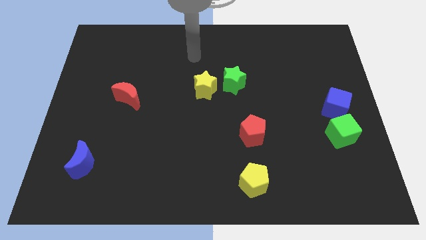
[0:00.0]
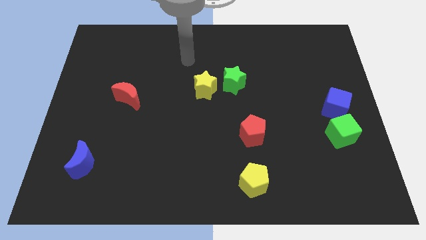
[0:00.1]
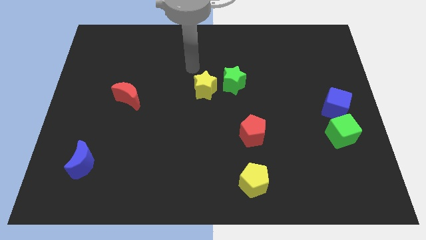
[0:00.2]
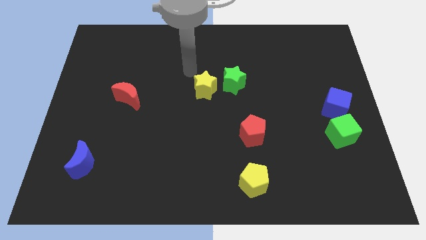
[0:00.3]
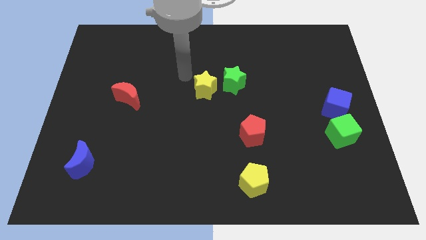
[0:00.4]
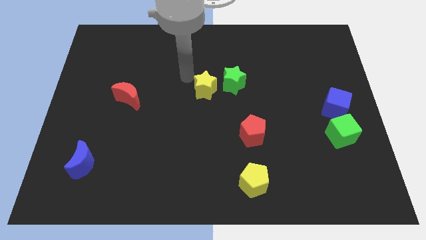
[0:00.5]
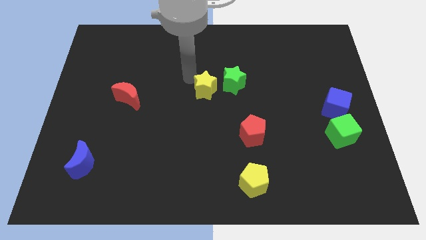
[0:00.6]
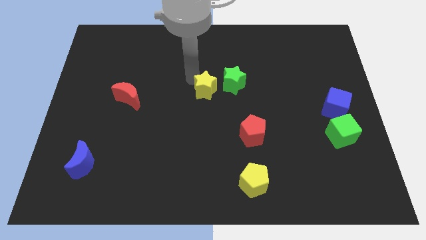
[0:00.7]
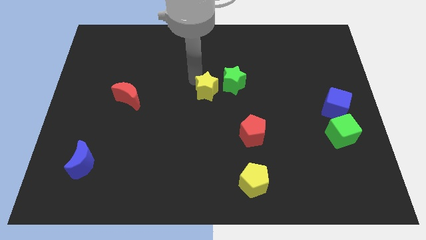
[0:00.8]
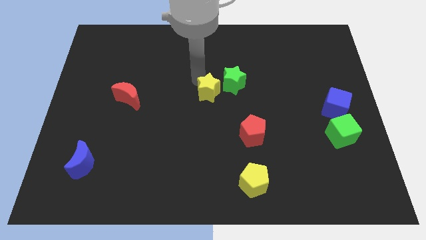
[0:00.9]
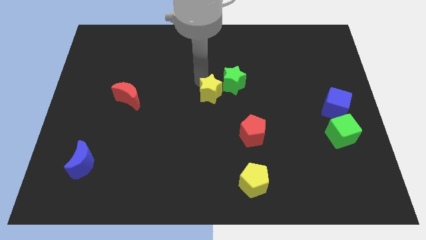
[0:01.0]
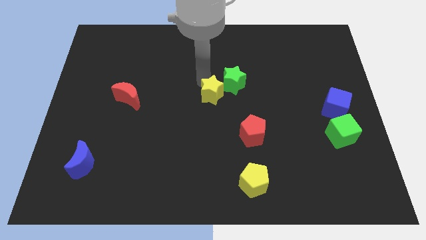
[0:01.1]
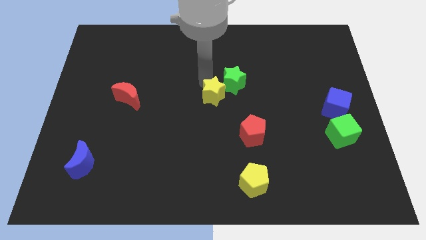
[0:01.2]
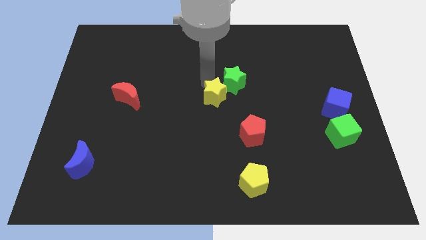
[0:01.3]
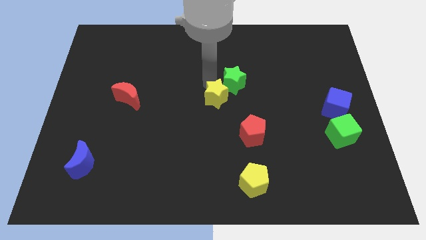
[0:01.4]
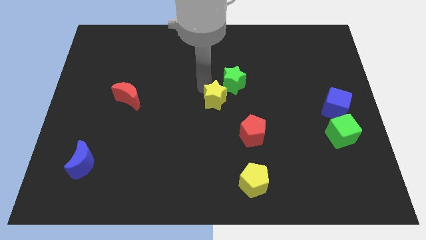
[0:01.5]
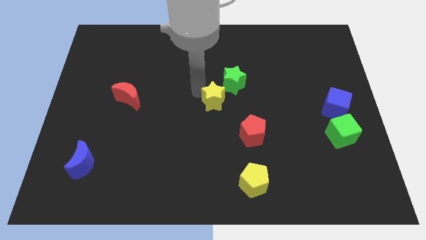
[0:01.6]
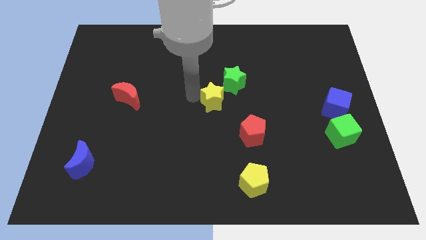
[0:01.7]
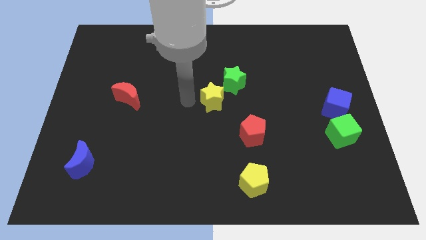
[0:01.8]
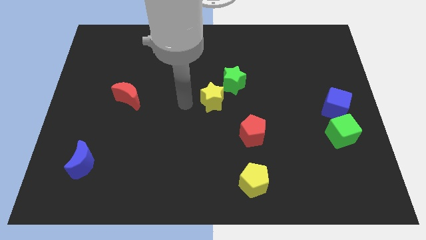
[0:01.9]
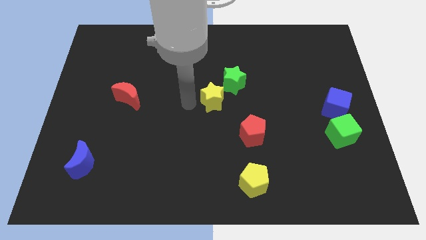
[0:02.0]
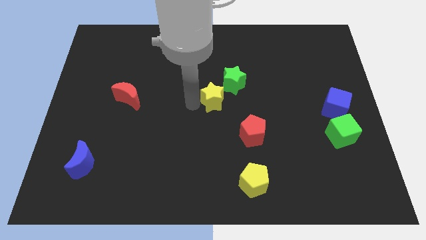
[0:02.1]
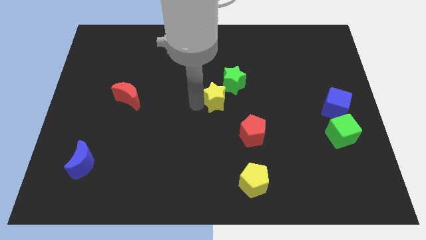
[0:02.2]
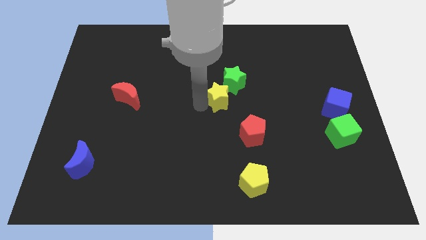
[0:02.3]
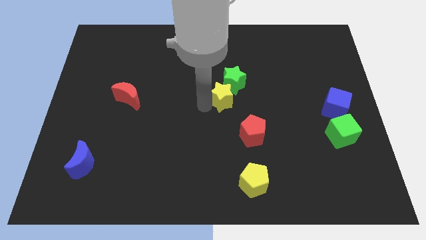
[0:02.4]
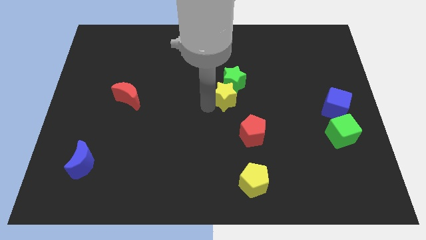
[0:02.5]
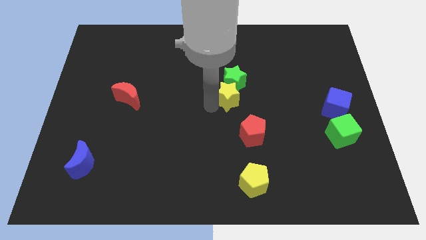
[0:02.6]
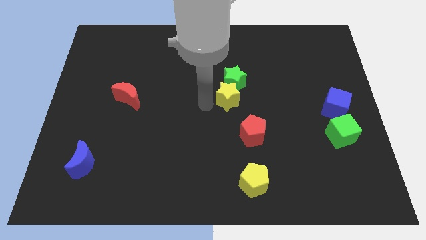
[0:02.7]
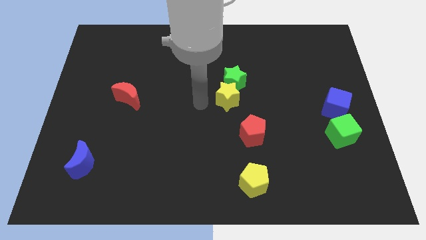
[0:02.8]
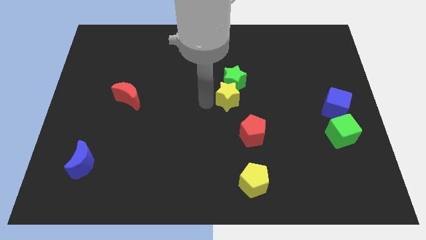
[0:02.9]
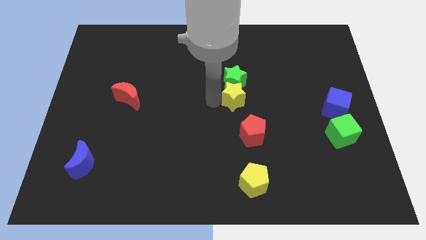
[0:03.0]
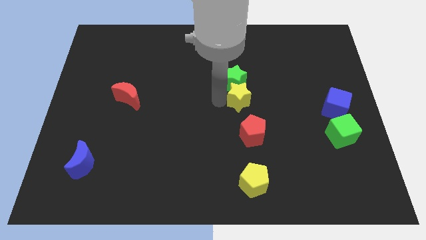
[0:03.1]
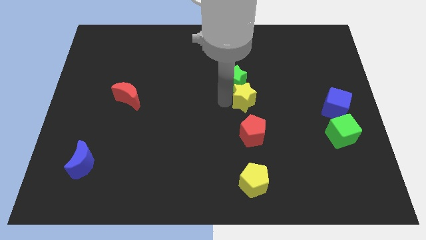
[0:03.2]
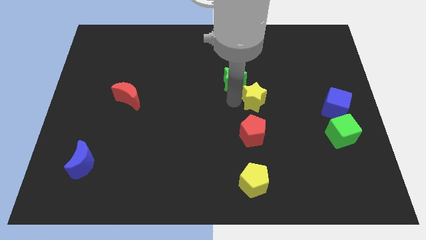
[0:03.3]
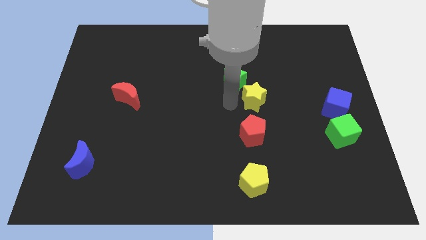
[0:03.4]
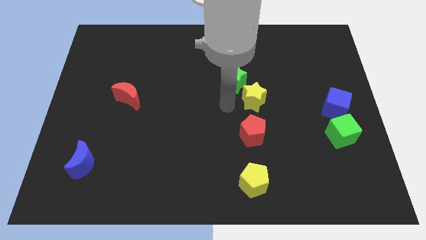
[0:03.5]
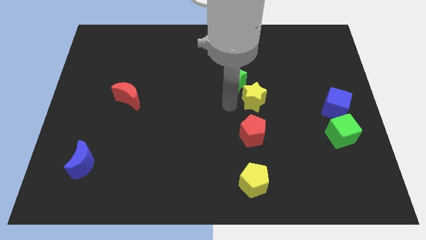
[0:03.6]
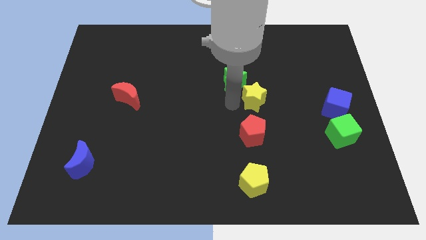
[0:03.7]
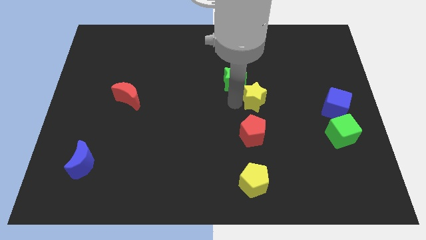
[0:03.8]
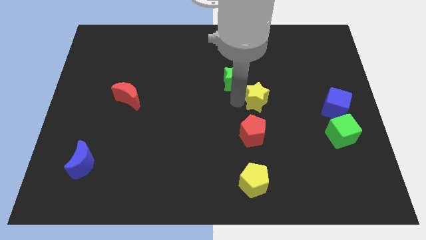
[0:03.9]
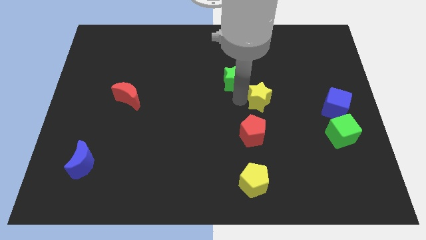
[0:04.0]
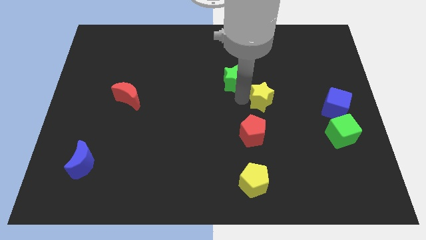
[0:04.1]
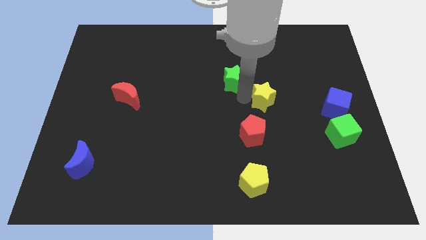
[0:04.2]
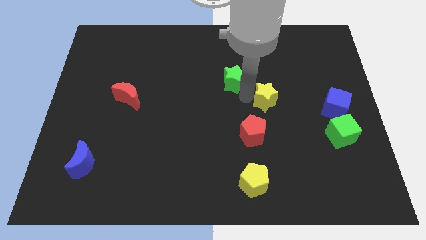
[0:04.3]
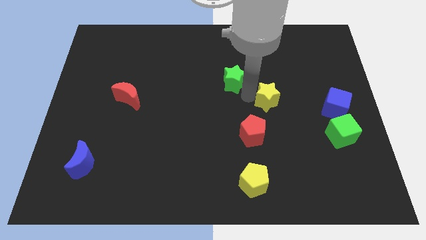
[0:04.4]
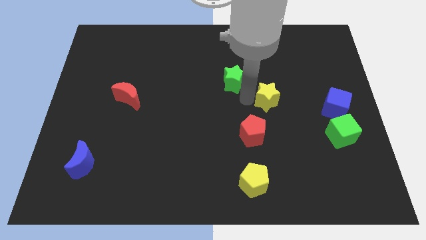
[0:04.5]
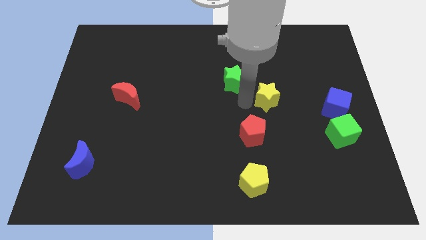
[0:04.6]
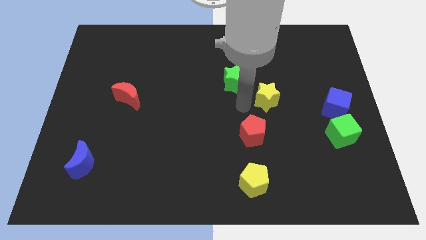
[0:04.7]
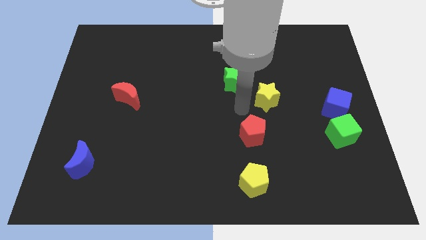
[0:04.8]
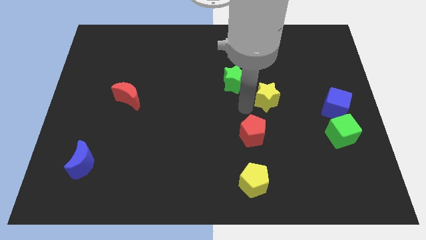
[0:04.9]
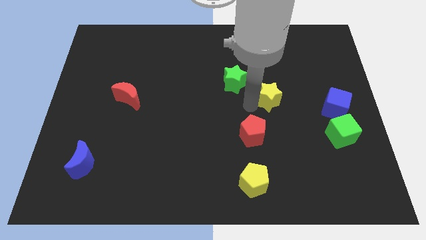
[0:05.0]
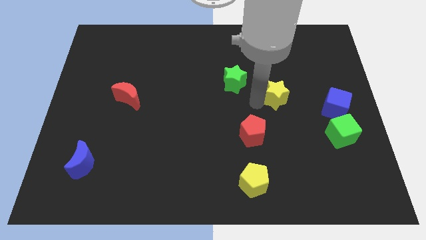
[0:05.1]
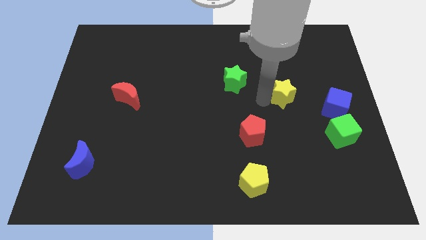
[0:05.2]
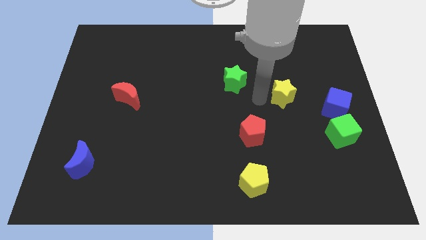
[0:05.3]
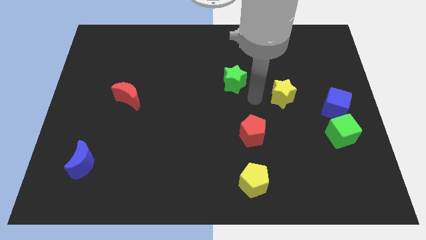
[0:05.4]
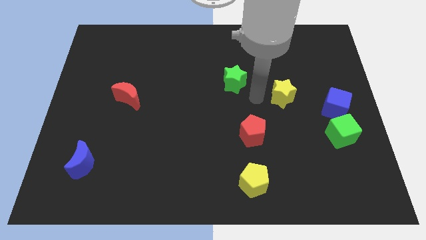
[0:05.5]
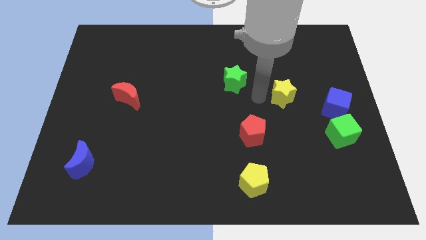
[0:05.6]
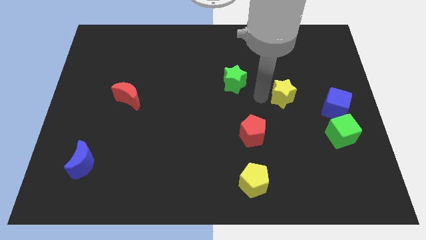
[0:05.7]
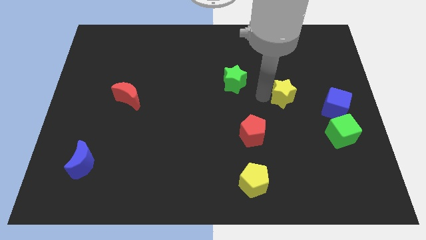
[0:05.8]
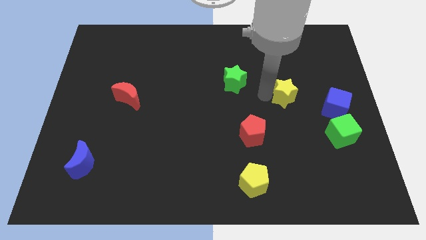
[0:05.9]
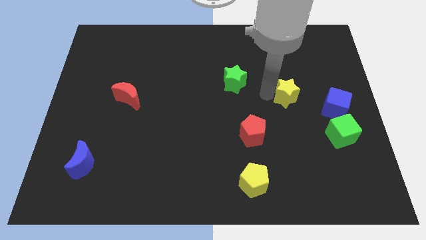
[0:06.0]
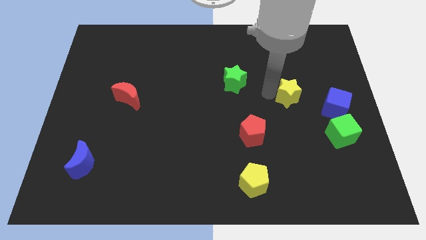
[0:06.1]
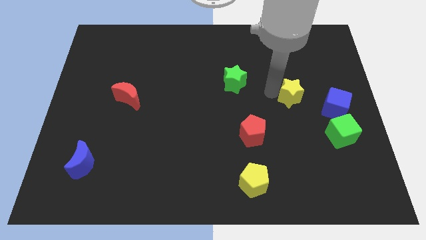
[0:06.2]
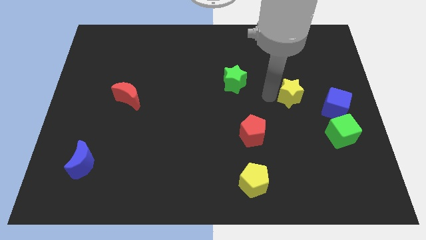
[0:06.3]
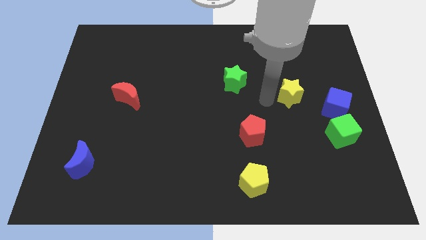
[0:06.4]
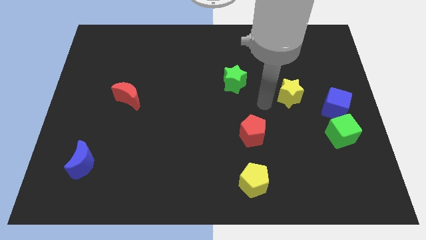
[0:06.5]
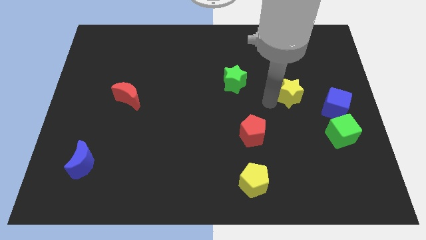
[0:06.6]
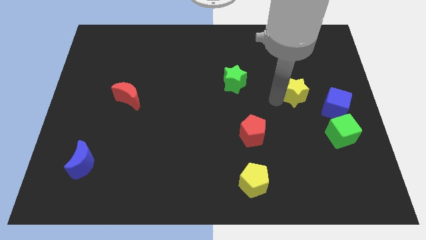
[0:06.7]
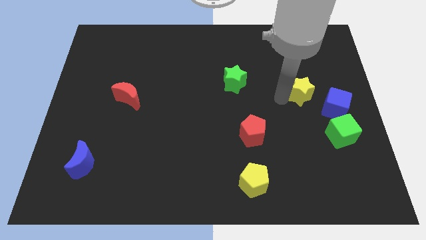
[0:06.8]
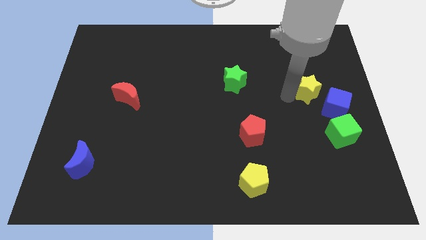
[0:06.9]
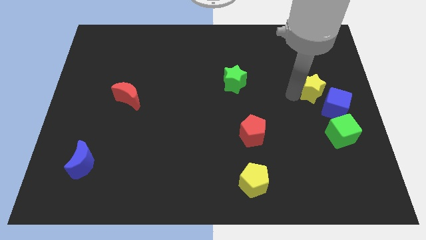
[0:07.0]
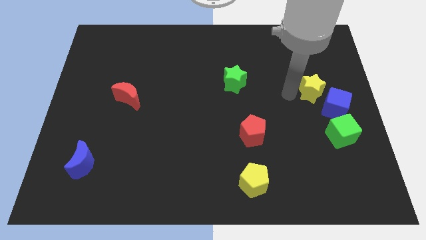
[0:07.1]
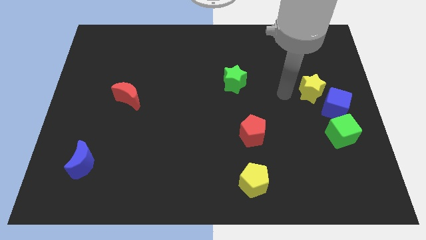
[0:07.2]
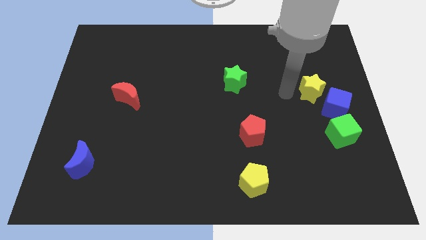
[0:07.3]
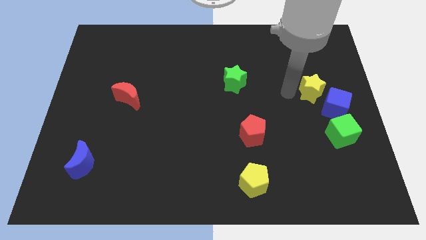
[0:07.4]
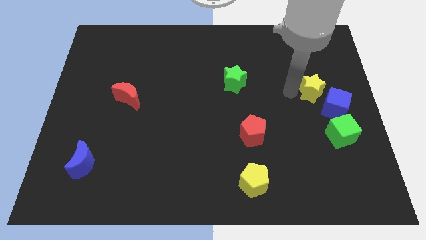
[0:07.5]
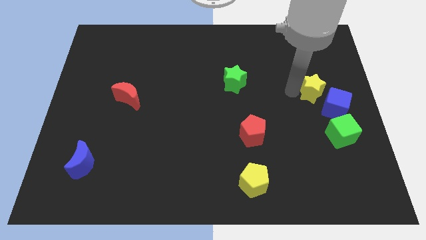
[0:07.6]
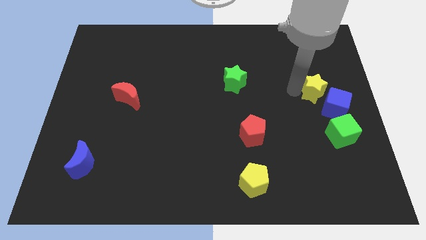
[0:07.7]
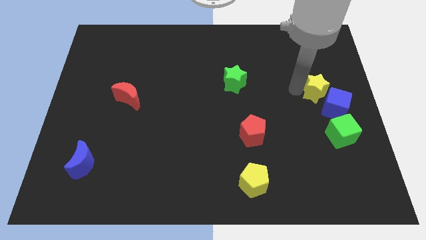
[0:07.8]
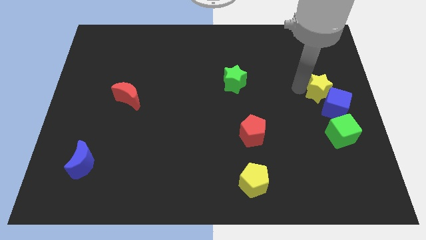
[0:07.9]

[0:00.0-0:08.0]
put the yellow star to the right side of the board
